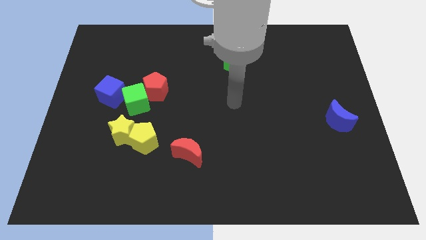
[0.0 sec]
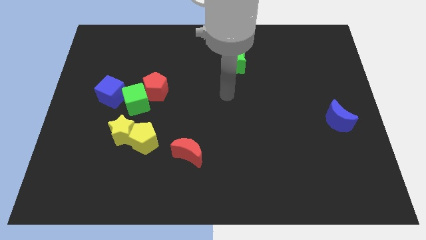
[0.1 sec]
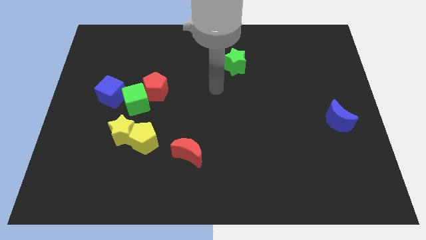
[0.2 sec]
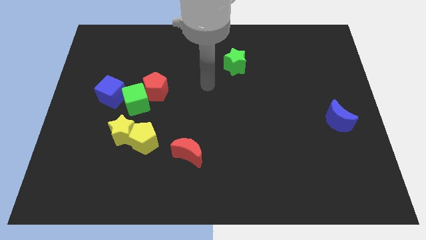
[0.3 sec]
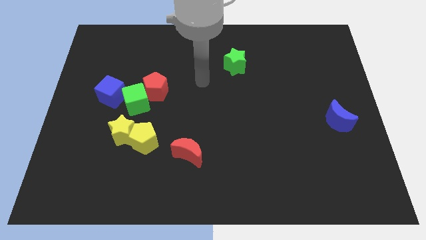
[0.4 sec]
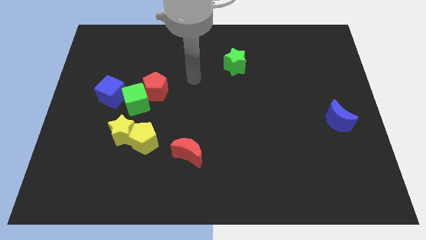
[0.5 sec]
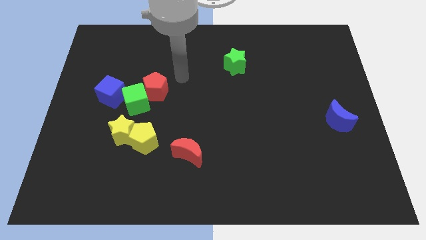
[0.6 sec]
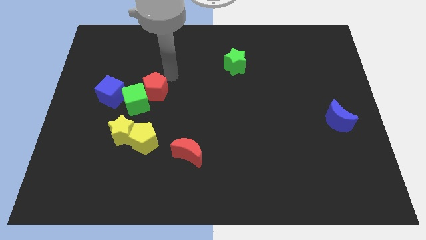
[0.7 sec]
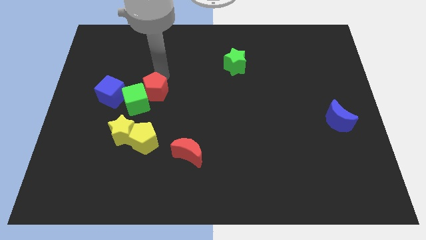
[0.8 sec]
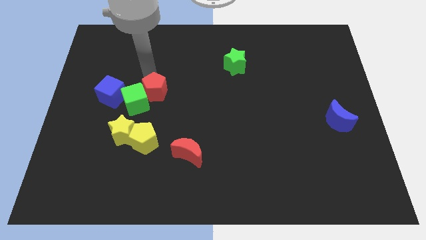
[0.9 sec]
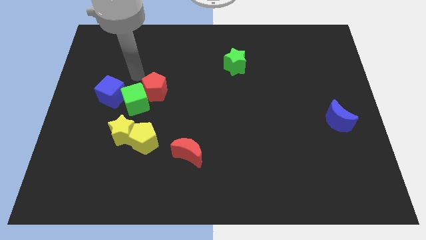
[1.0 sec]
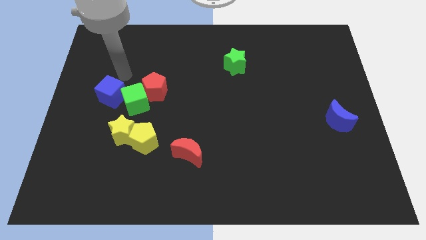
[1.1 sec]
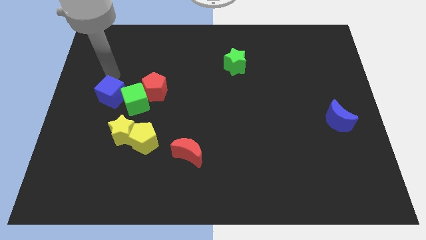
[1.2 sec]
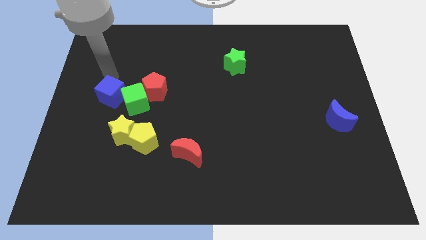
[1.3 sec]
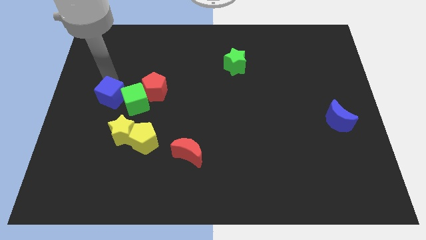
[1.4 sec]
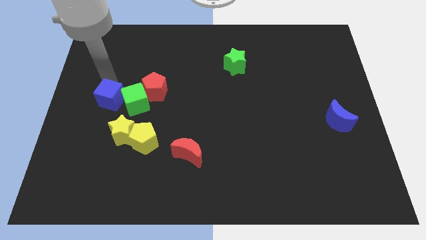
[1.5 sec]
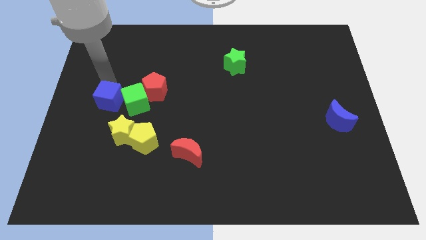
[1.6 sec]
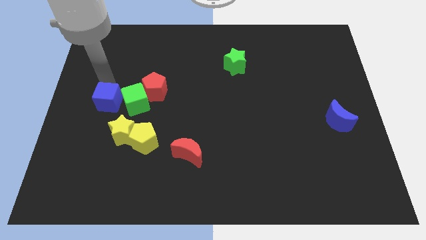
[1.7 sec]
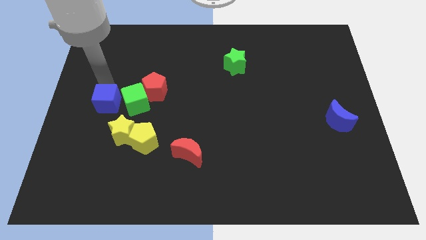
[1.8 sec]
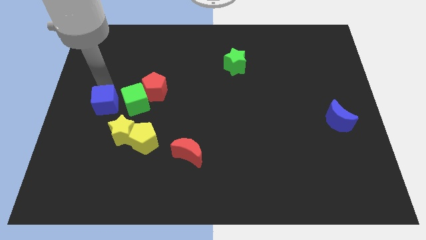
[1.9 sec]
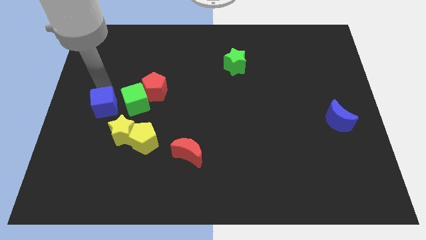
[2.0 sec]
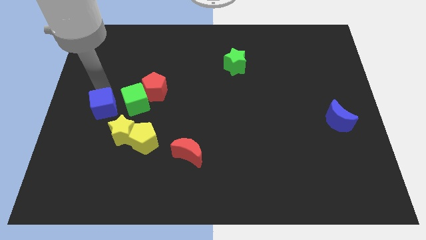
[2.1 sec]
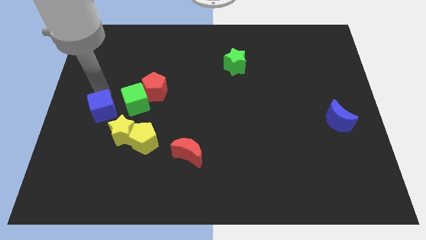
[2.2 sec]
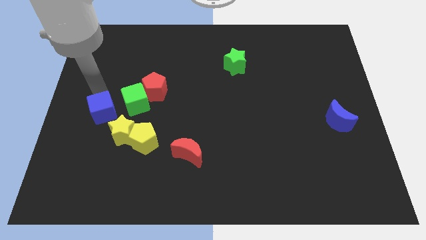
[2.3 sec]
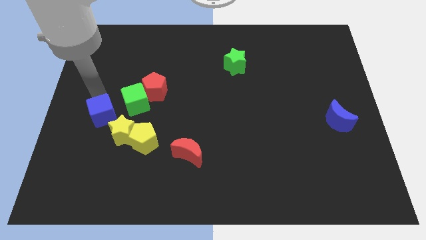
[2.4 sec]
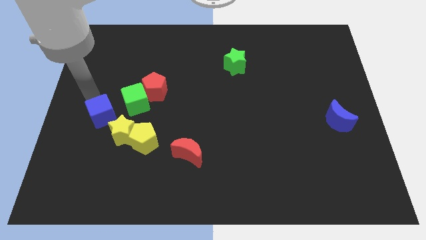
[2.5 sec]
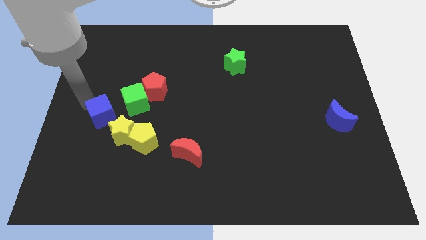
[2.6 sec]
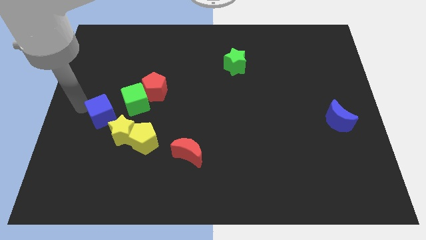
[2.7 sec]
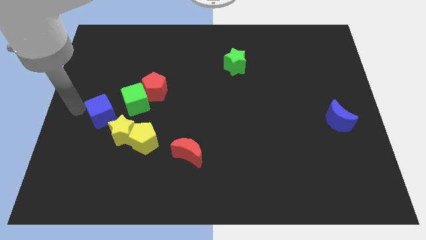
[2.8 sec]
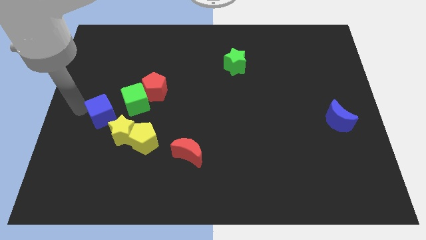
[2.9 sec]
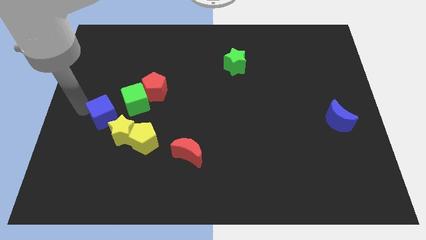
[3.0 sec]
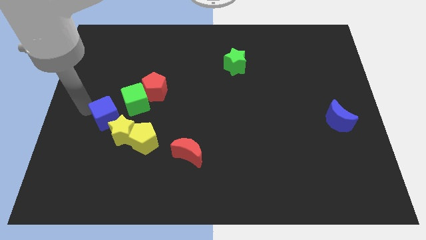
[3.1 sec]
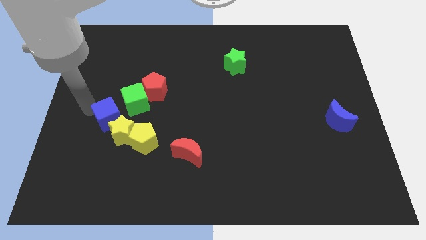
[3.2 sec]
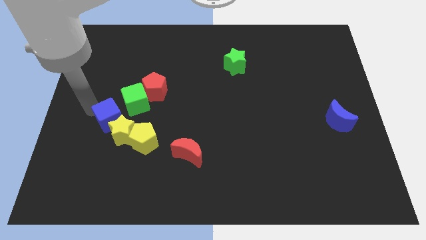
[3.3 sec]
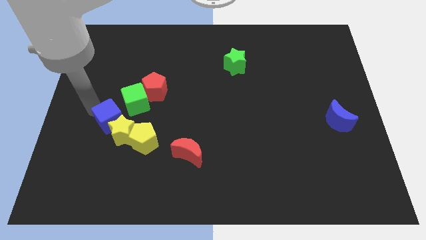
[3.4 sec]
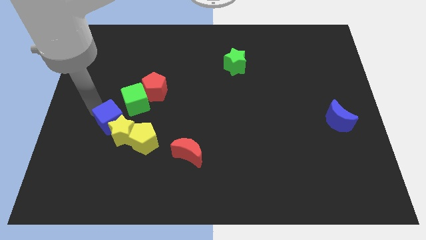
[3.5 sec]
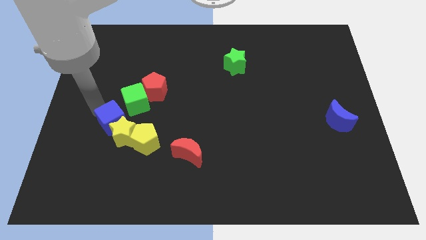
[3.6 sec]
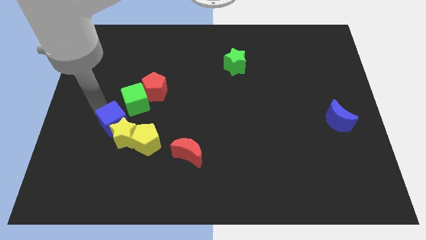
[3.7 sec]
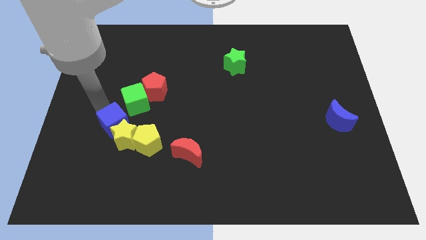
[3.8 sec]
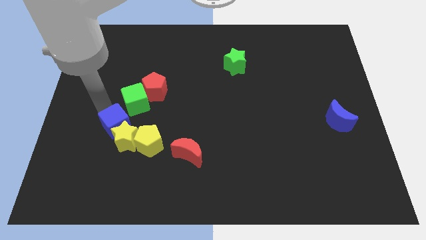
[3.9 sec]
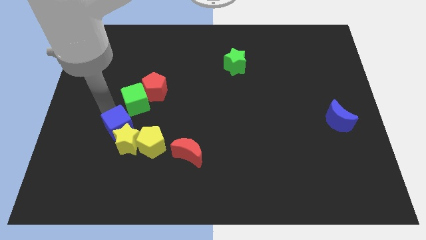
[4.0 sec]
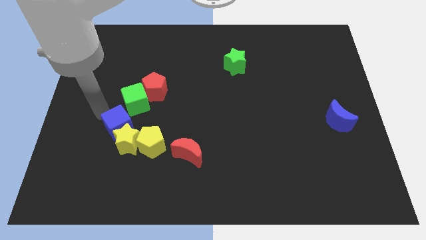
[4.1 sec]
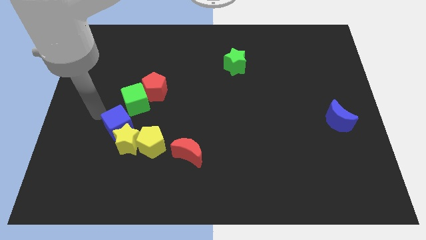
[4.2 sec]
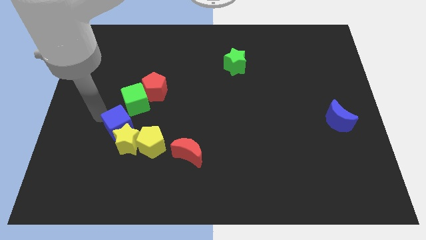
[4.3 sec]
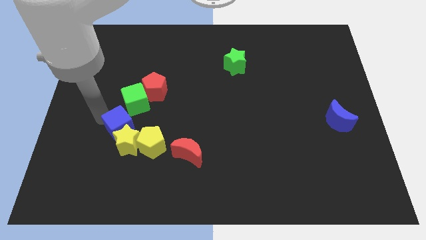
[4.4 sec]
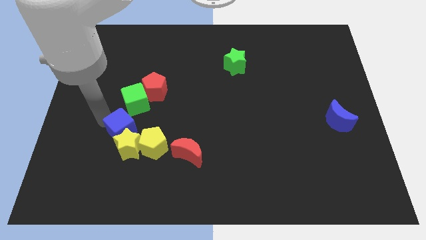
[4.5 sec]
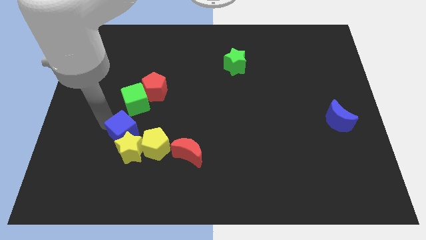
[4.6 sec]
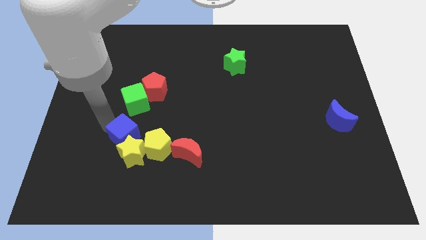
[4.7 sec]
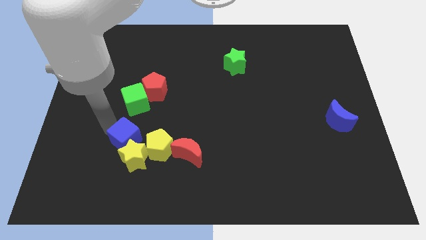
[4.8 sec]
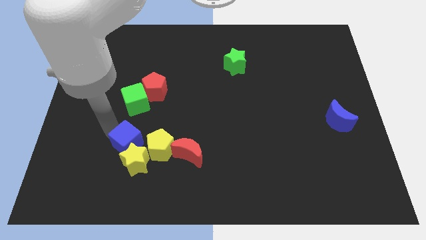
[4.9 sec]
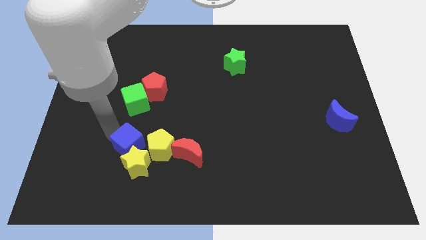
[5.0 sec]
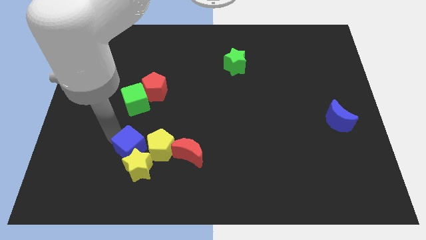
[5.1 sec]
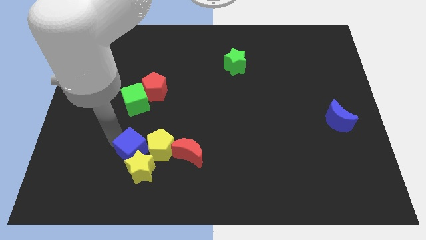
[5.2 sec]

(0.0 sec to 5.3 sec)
push the blue cube to the yellow pentagon

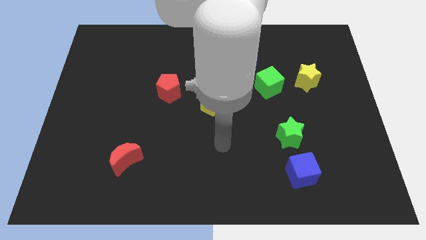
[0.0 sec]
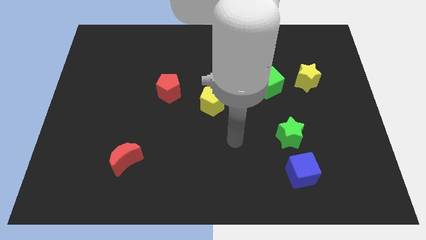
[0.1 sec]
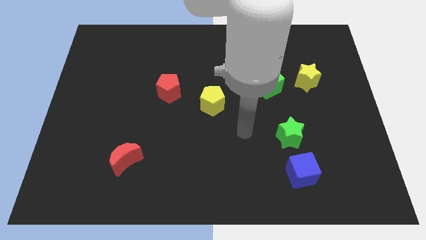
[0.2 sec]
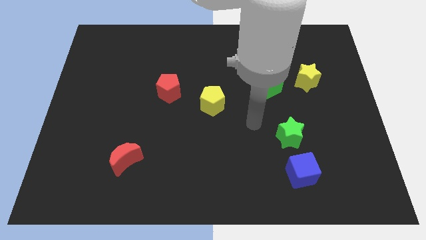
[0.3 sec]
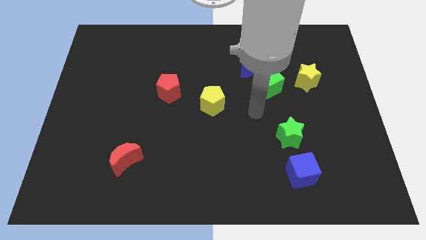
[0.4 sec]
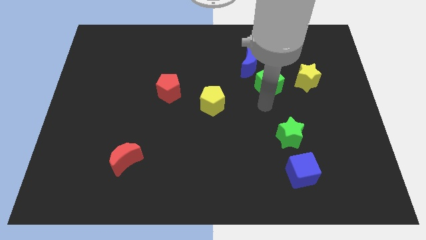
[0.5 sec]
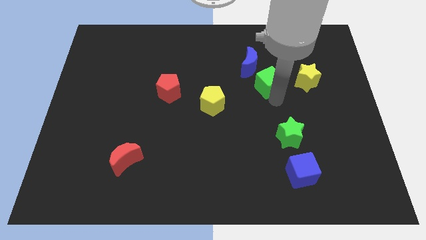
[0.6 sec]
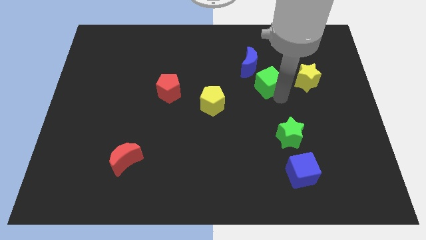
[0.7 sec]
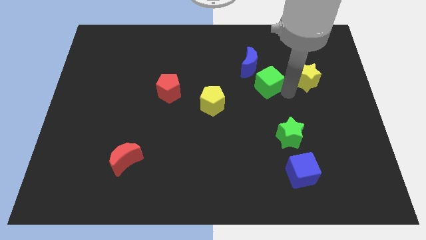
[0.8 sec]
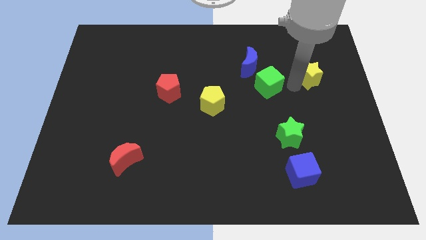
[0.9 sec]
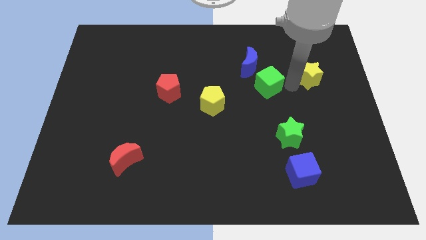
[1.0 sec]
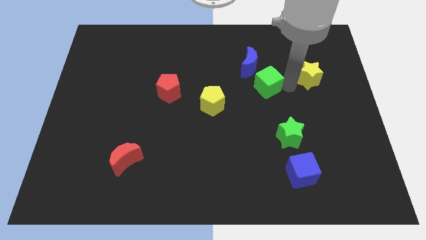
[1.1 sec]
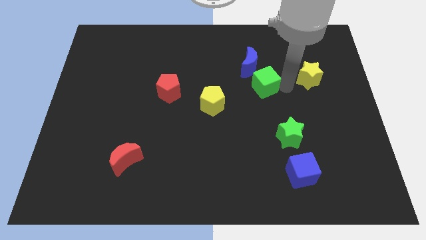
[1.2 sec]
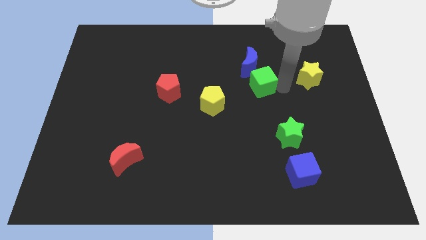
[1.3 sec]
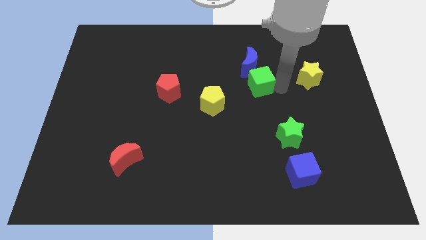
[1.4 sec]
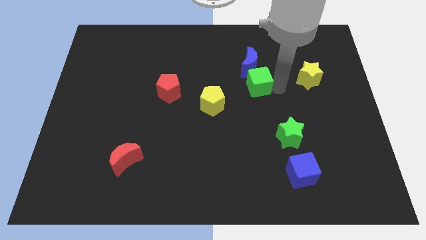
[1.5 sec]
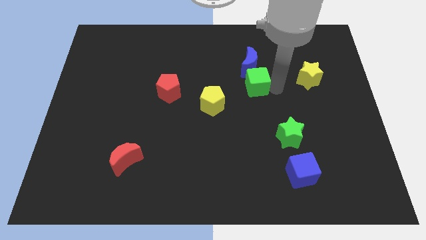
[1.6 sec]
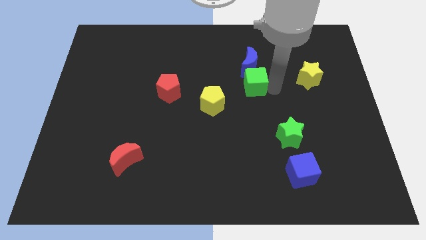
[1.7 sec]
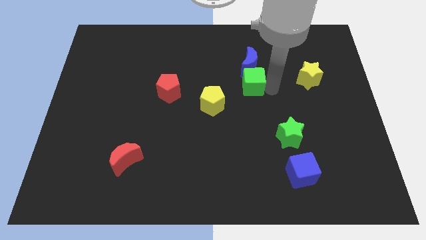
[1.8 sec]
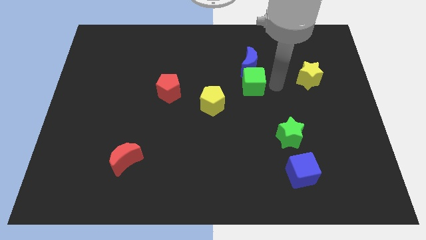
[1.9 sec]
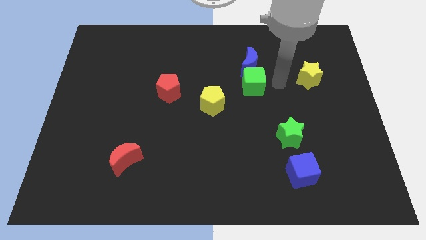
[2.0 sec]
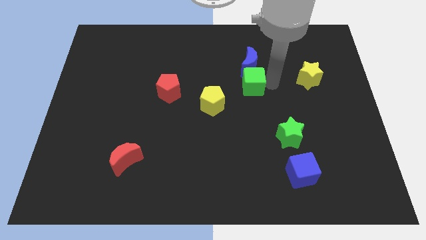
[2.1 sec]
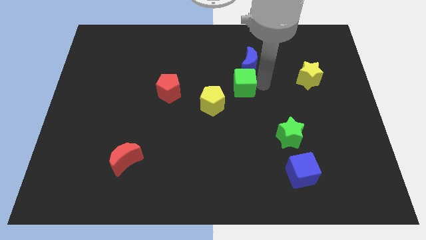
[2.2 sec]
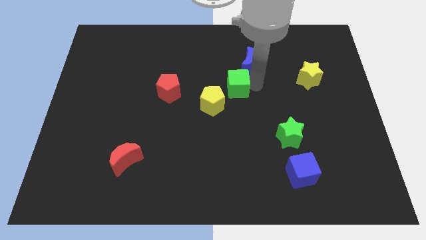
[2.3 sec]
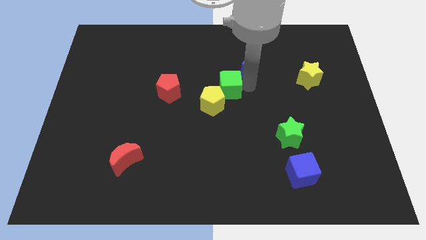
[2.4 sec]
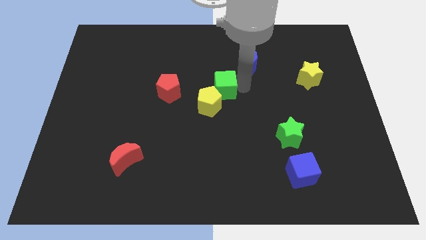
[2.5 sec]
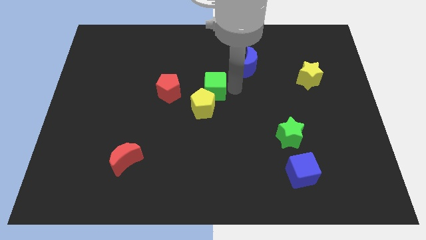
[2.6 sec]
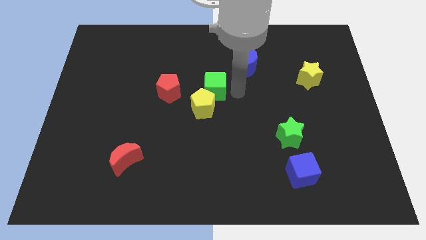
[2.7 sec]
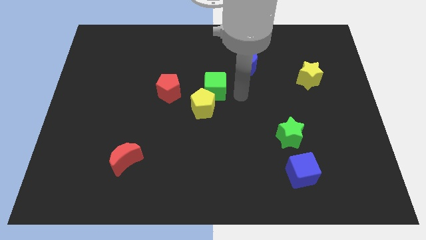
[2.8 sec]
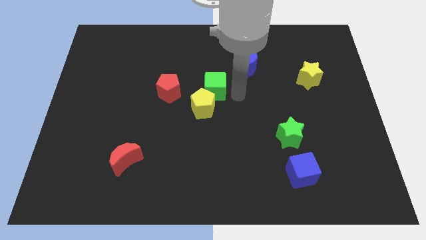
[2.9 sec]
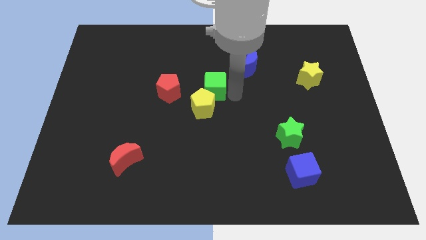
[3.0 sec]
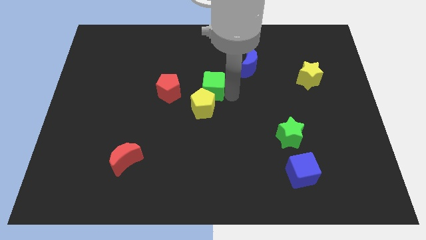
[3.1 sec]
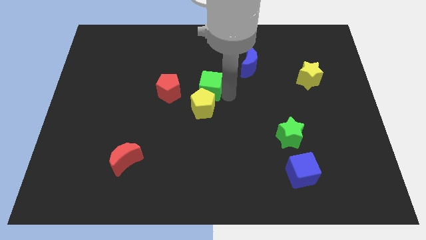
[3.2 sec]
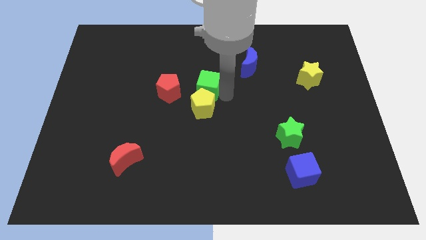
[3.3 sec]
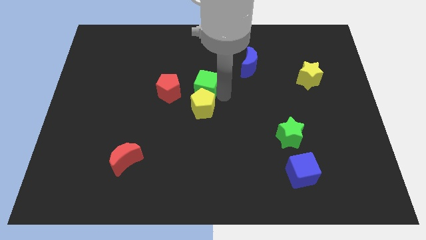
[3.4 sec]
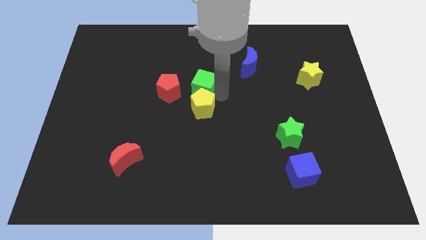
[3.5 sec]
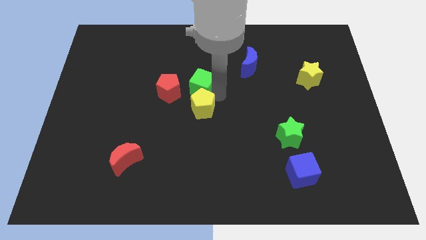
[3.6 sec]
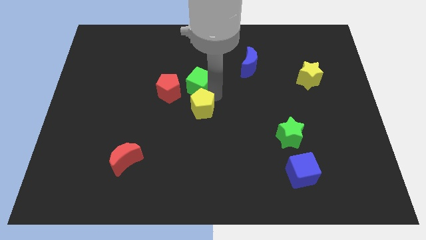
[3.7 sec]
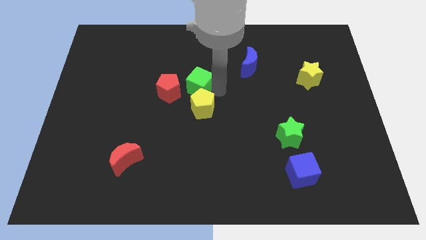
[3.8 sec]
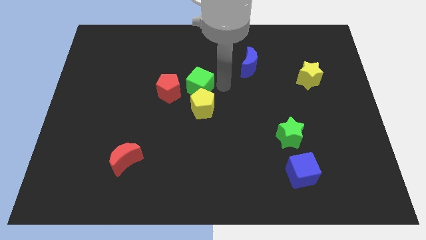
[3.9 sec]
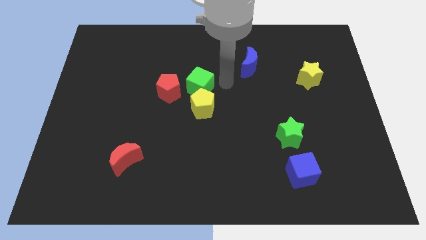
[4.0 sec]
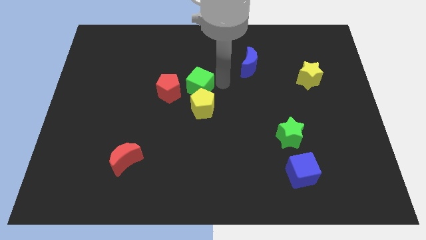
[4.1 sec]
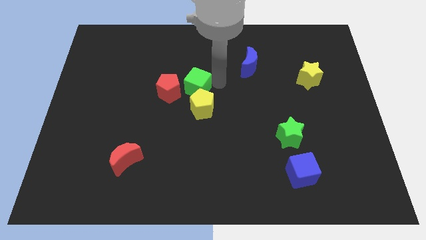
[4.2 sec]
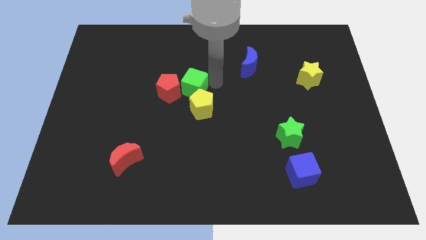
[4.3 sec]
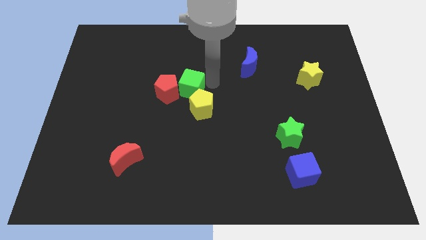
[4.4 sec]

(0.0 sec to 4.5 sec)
put the green cube to the red pentagon
